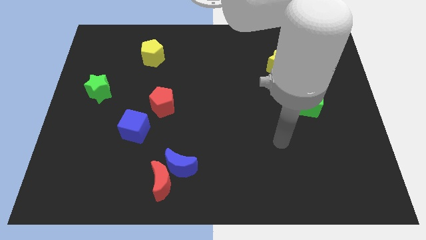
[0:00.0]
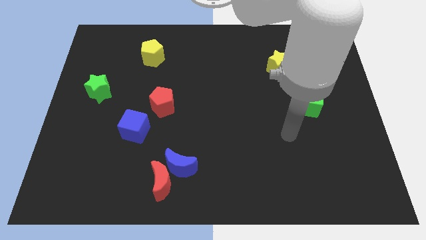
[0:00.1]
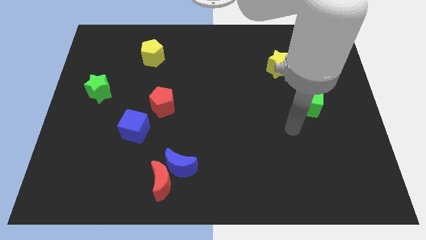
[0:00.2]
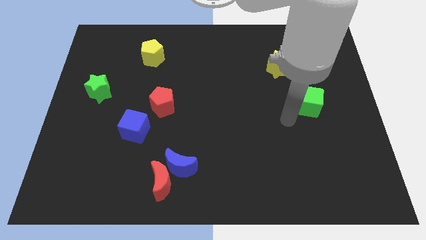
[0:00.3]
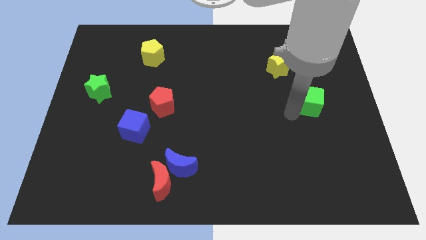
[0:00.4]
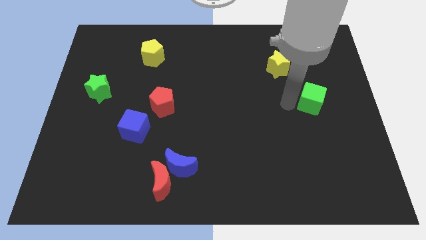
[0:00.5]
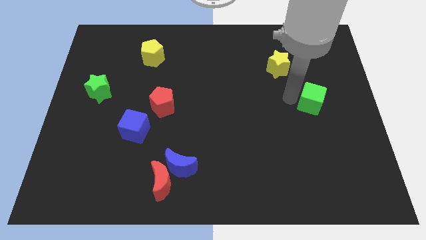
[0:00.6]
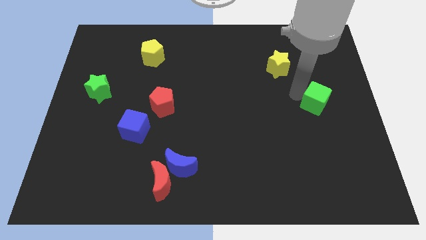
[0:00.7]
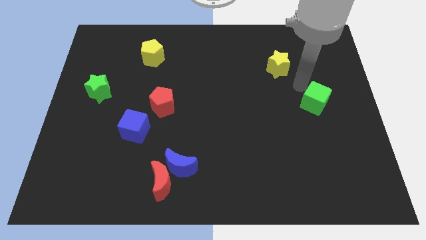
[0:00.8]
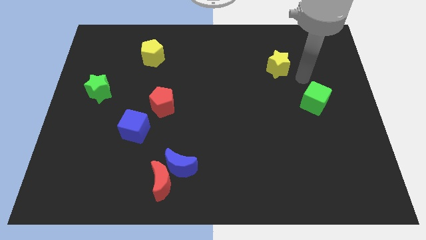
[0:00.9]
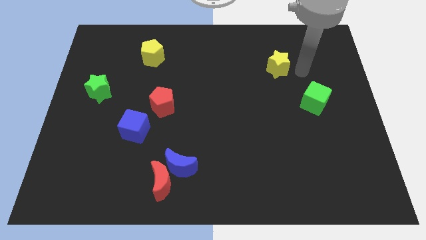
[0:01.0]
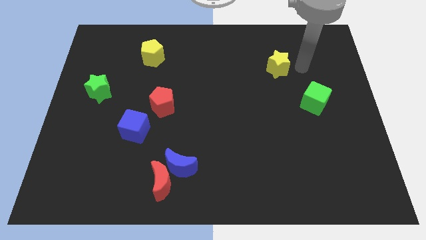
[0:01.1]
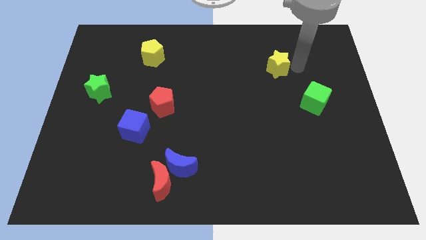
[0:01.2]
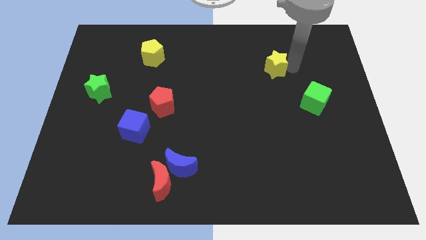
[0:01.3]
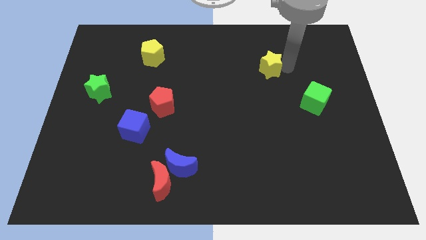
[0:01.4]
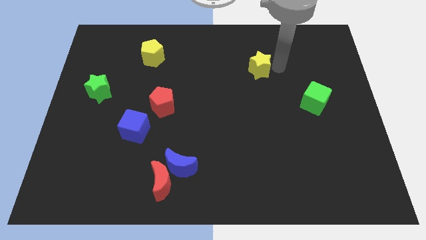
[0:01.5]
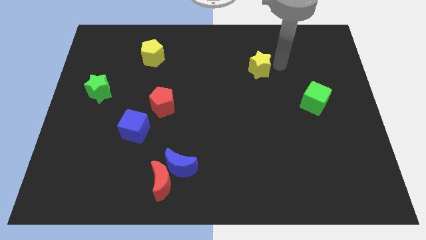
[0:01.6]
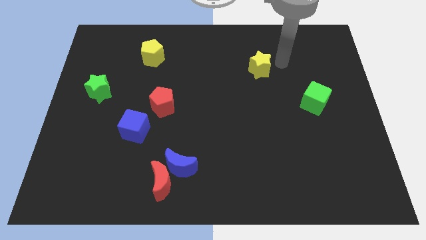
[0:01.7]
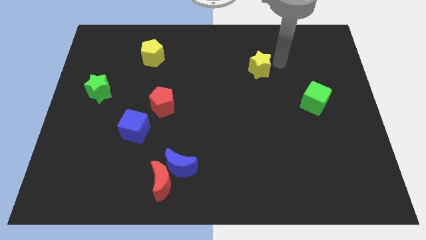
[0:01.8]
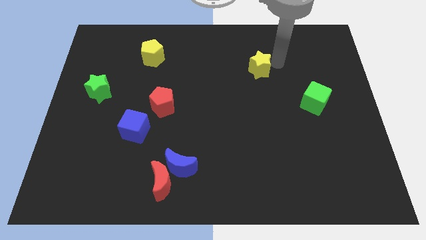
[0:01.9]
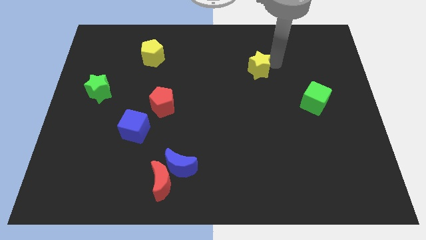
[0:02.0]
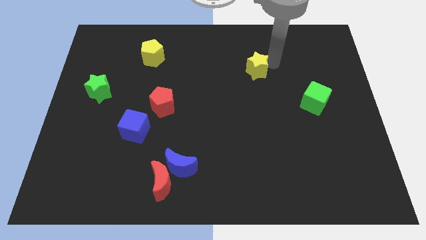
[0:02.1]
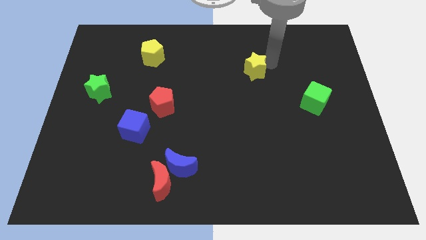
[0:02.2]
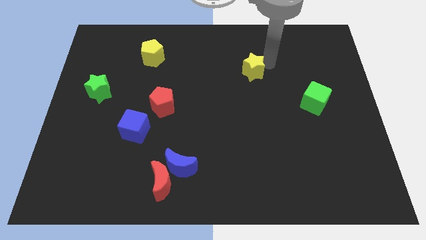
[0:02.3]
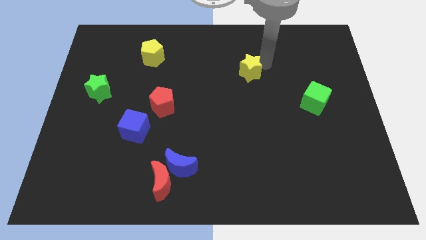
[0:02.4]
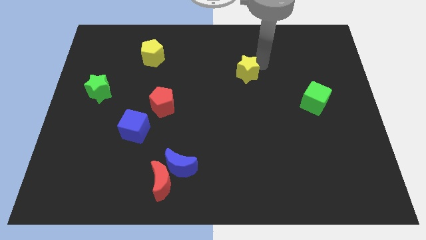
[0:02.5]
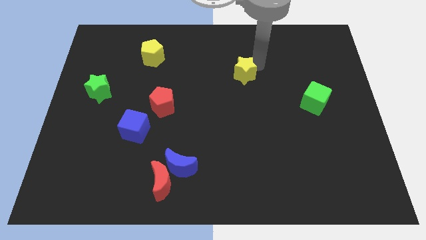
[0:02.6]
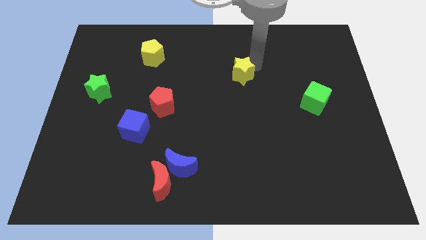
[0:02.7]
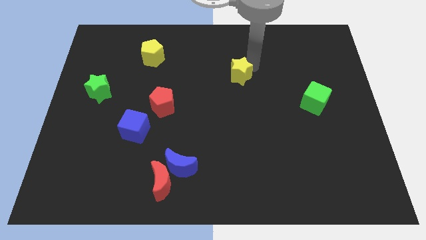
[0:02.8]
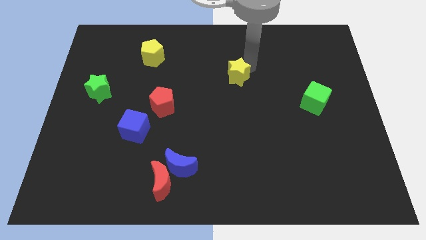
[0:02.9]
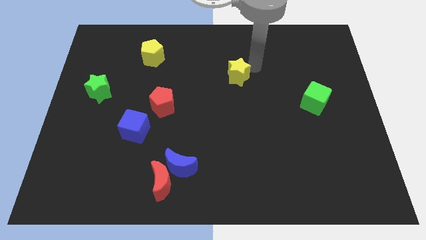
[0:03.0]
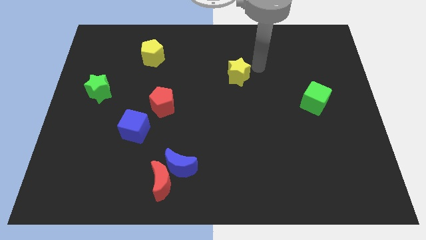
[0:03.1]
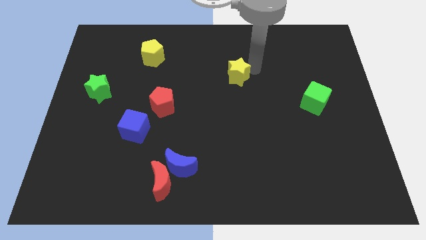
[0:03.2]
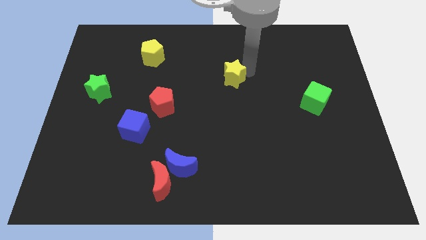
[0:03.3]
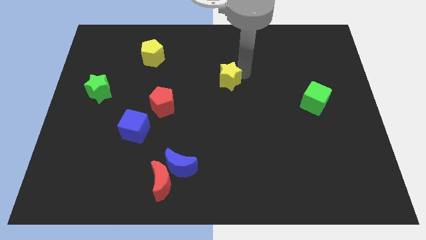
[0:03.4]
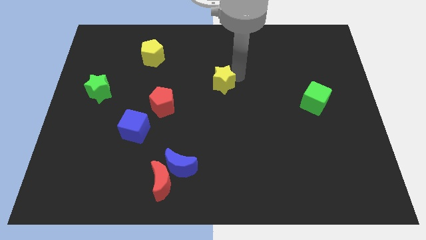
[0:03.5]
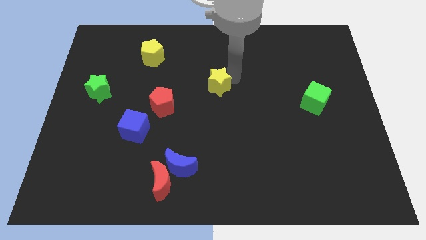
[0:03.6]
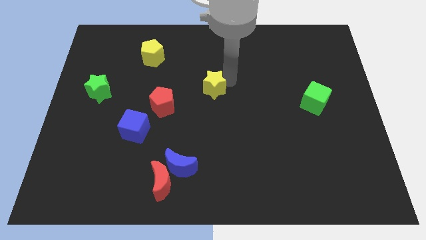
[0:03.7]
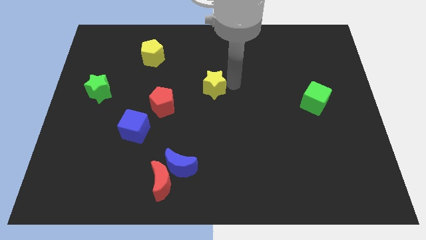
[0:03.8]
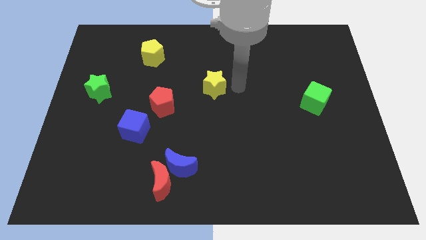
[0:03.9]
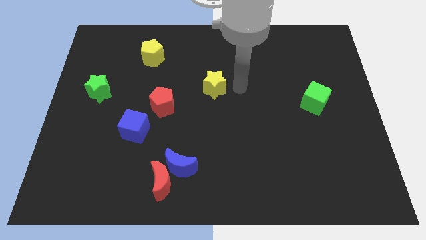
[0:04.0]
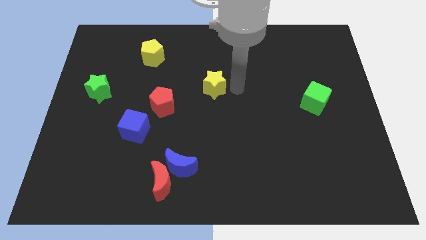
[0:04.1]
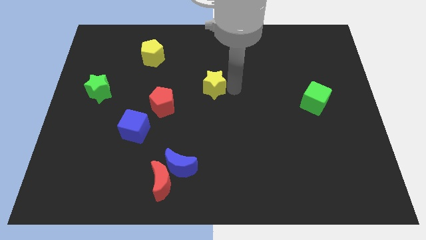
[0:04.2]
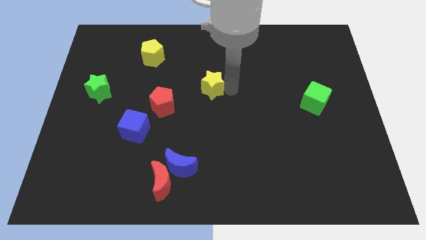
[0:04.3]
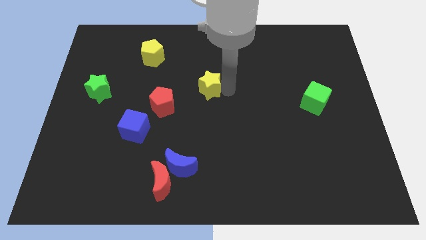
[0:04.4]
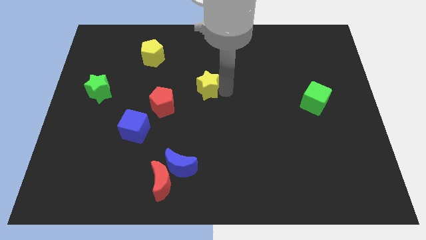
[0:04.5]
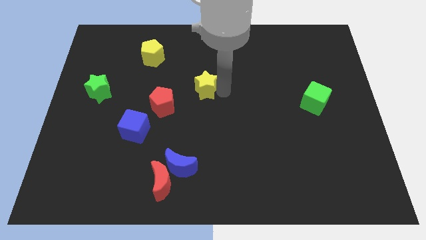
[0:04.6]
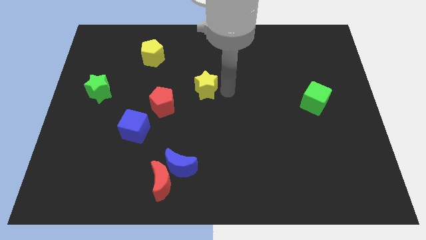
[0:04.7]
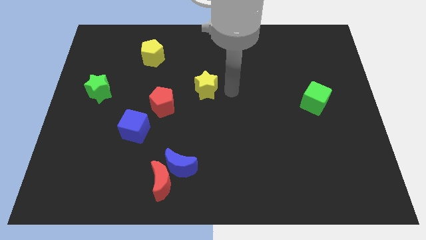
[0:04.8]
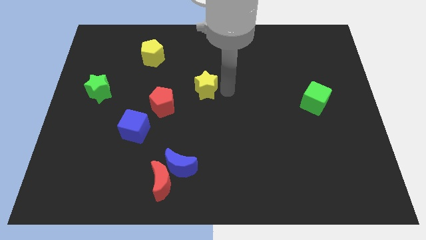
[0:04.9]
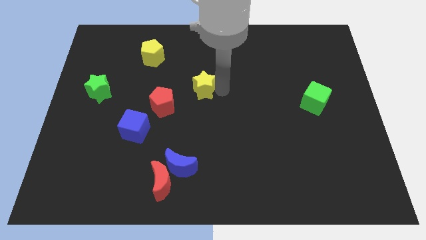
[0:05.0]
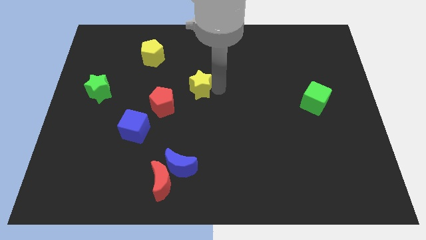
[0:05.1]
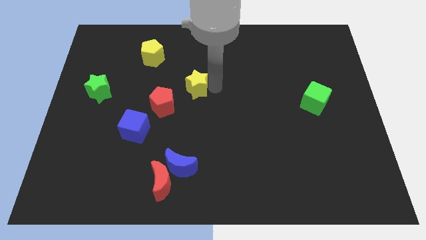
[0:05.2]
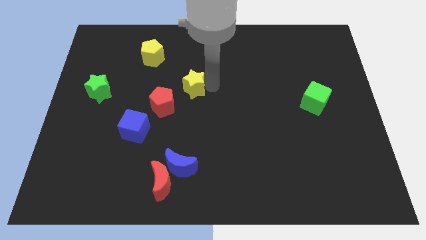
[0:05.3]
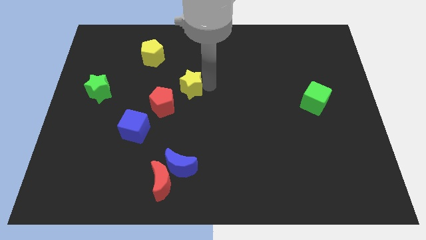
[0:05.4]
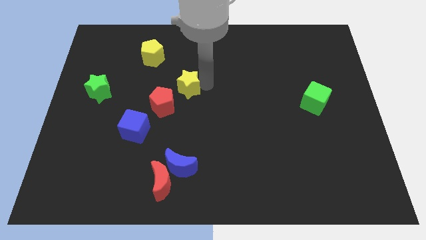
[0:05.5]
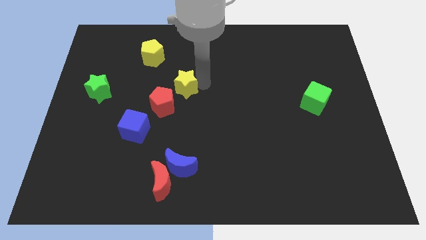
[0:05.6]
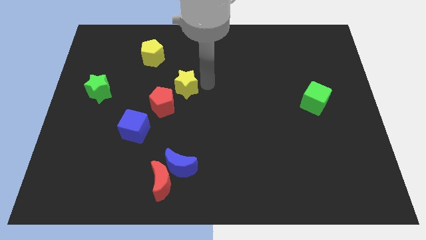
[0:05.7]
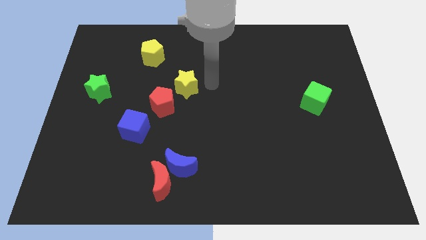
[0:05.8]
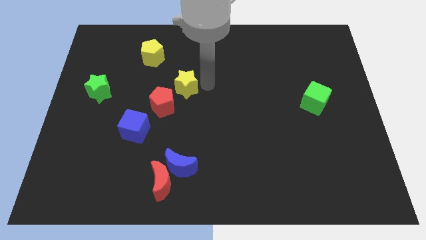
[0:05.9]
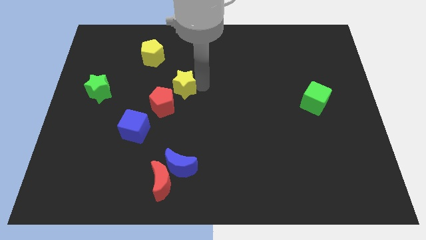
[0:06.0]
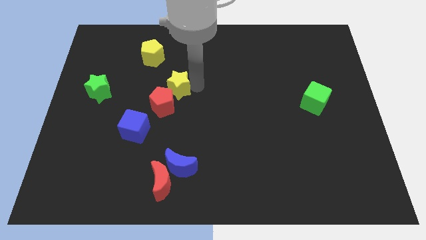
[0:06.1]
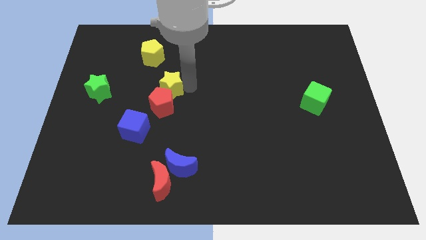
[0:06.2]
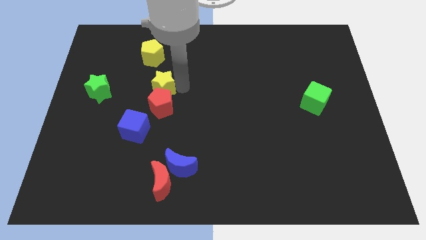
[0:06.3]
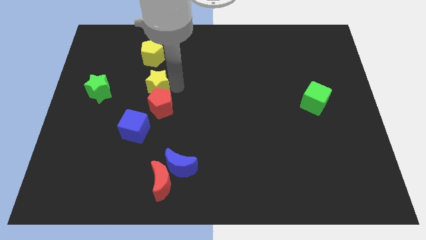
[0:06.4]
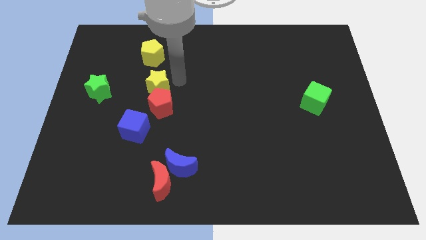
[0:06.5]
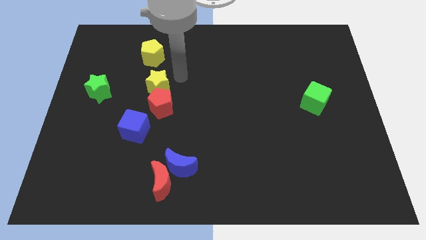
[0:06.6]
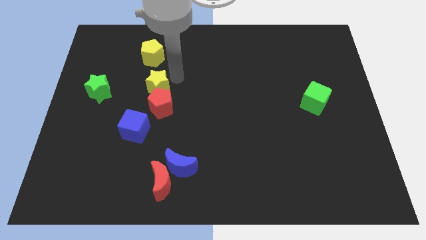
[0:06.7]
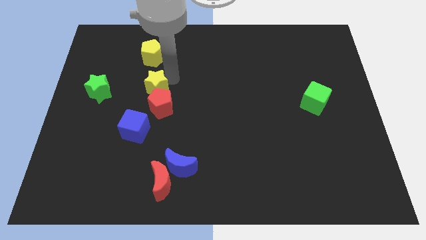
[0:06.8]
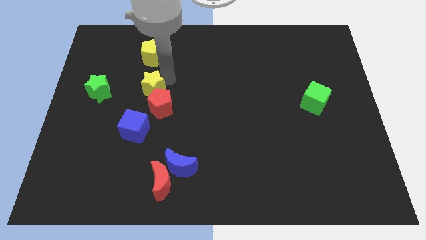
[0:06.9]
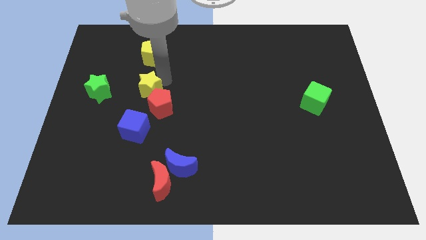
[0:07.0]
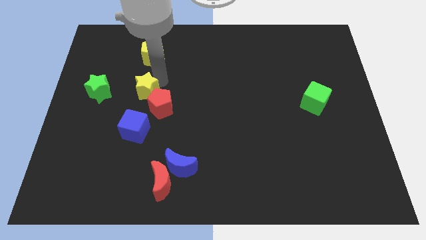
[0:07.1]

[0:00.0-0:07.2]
push the yellow star to the left side of the red pentagon
